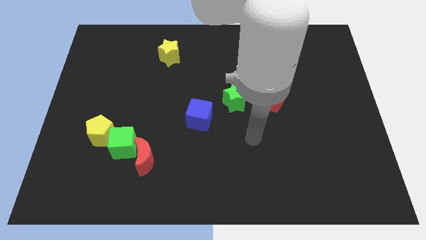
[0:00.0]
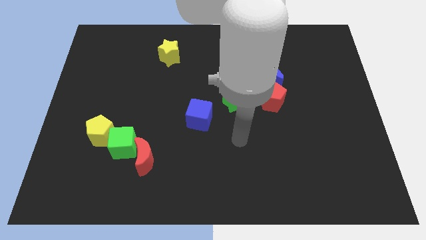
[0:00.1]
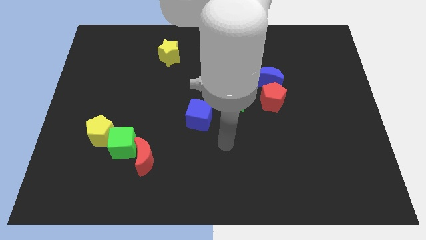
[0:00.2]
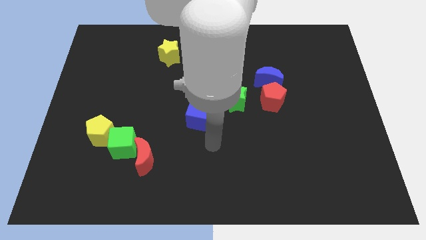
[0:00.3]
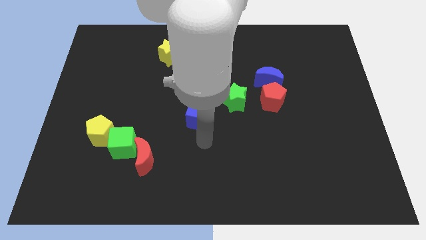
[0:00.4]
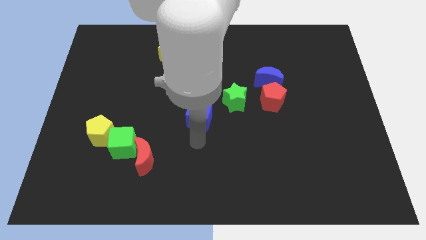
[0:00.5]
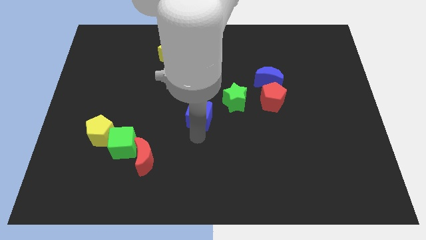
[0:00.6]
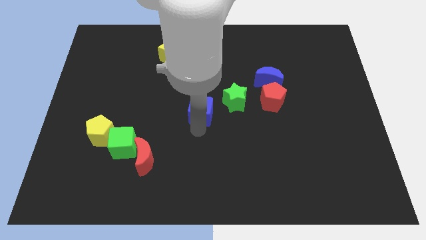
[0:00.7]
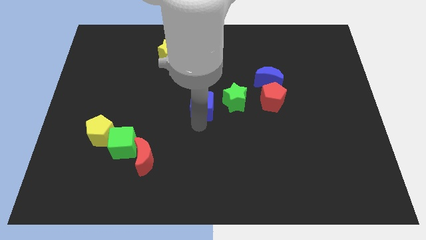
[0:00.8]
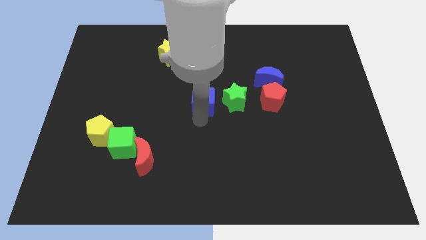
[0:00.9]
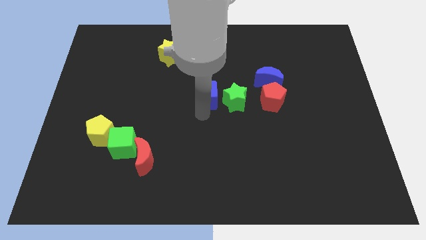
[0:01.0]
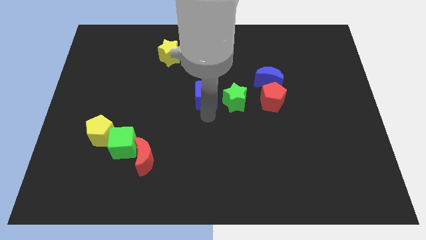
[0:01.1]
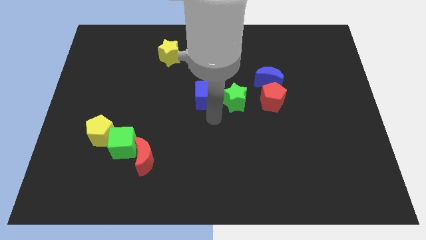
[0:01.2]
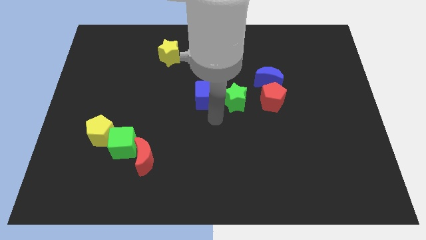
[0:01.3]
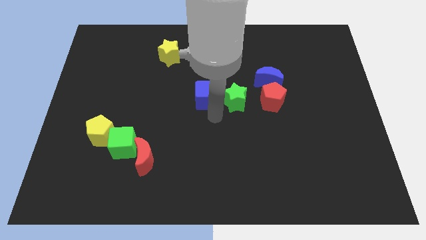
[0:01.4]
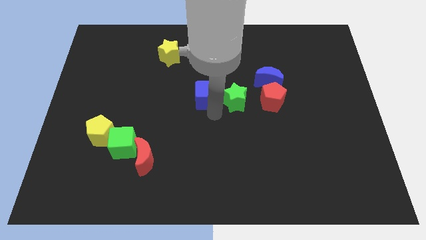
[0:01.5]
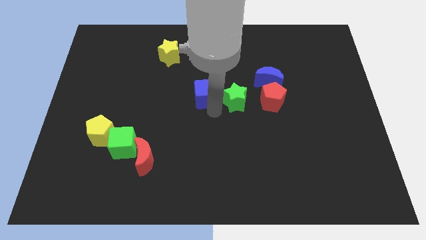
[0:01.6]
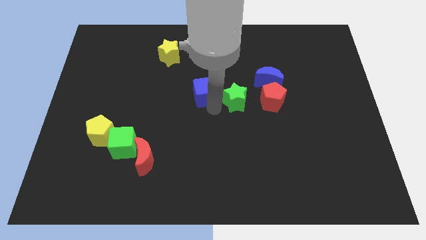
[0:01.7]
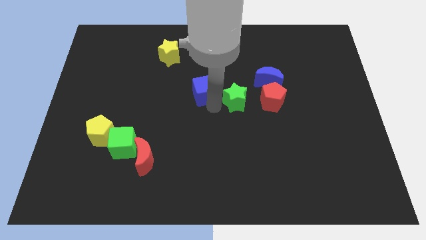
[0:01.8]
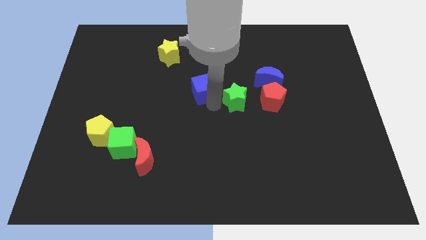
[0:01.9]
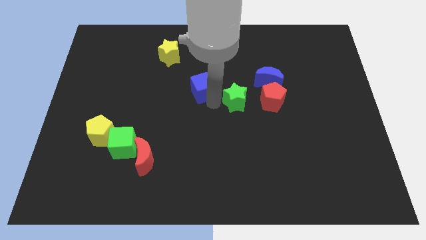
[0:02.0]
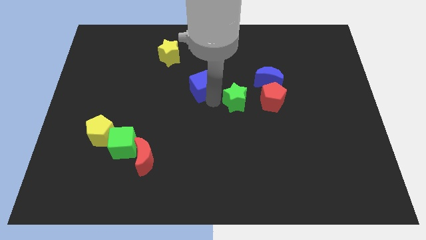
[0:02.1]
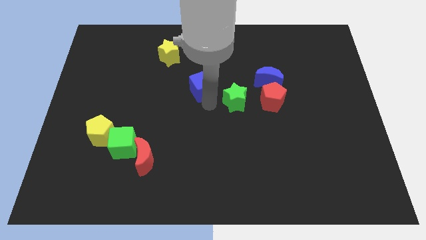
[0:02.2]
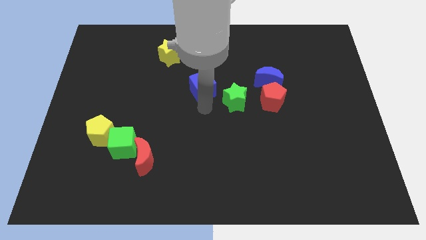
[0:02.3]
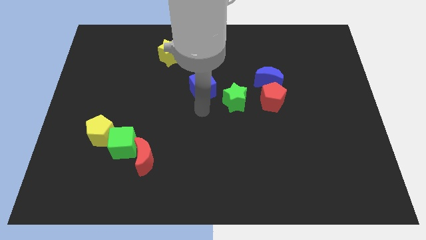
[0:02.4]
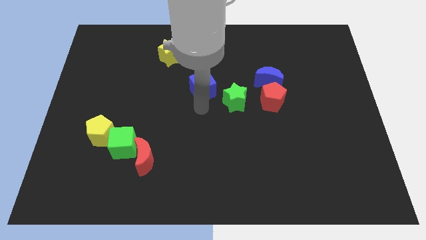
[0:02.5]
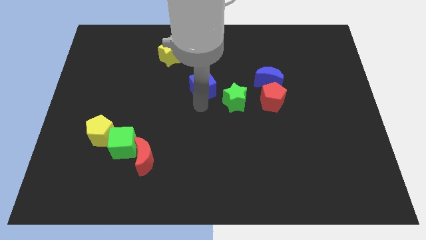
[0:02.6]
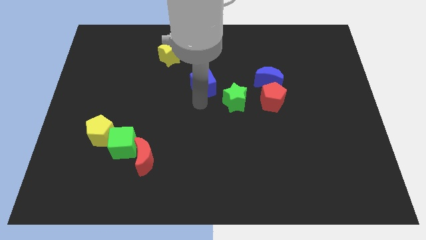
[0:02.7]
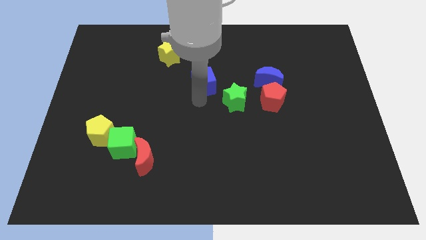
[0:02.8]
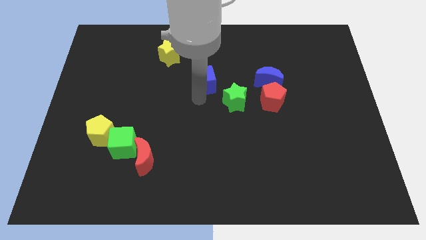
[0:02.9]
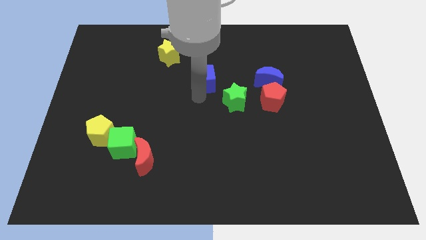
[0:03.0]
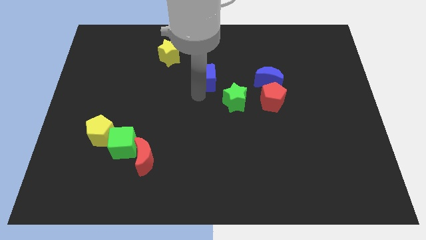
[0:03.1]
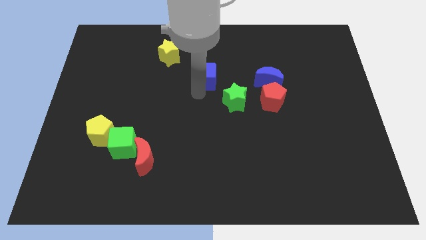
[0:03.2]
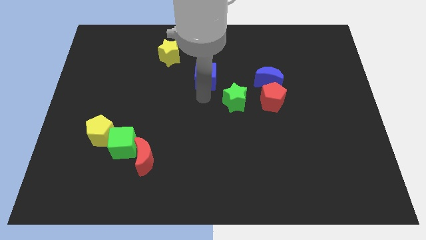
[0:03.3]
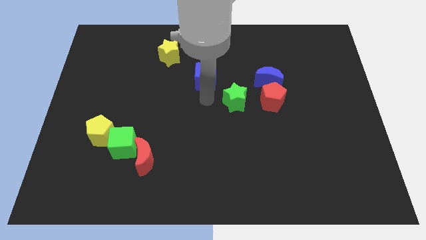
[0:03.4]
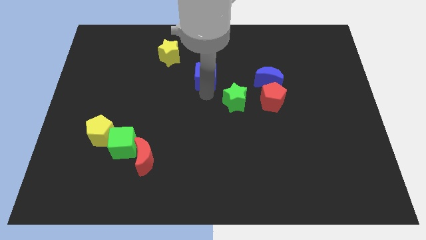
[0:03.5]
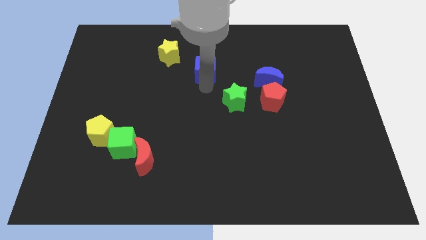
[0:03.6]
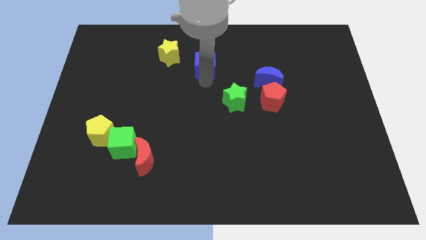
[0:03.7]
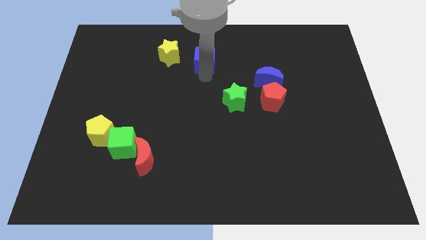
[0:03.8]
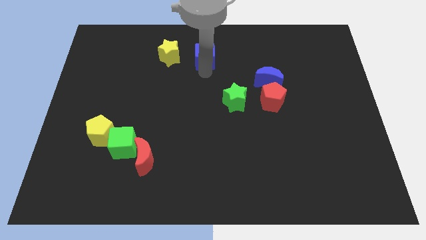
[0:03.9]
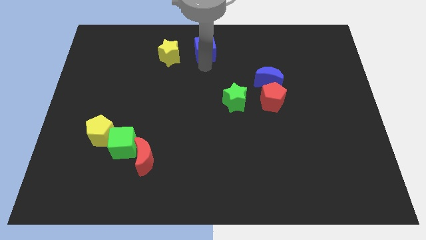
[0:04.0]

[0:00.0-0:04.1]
push the blue cube to the top

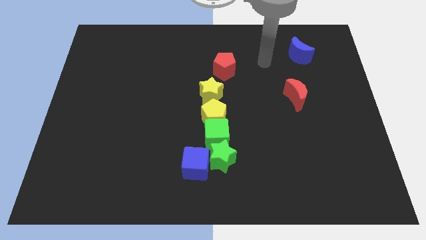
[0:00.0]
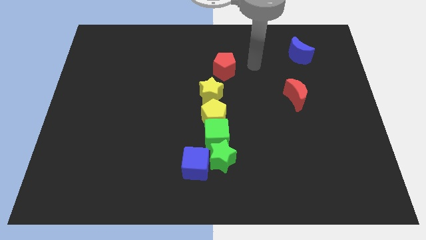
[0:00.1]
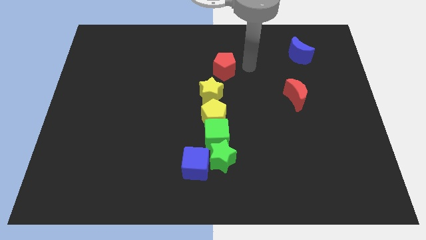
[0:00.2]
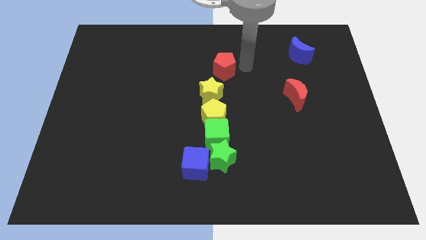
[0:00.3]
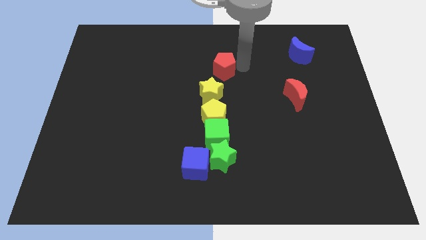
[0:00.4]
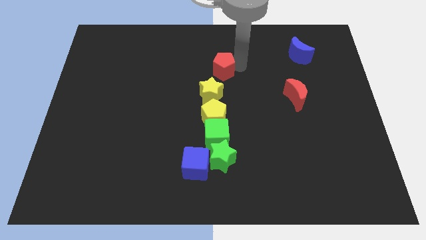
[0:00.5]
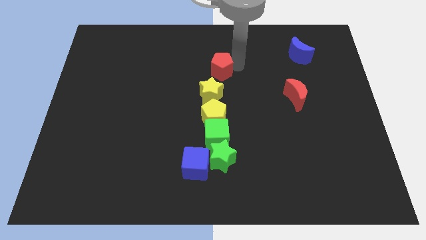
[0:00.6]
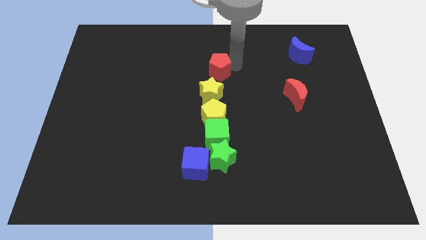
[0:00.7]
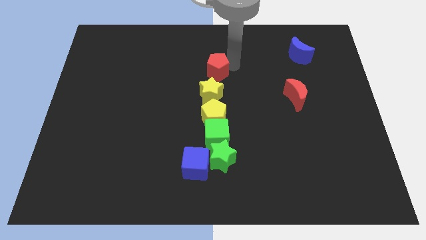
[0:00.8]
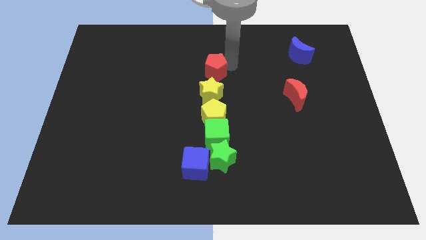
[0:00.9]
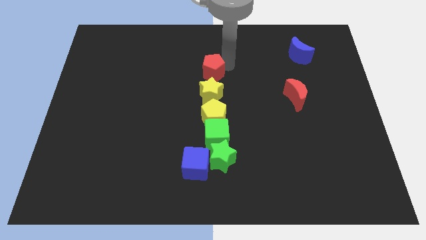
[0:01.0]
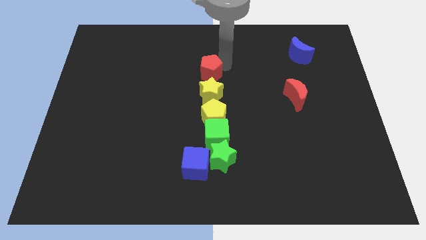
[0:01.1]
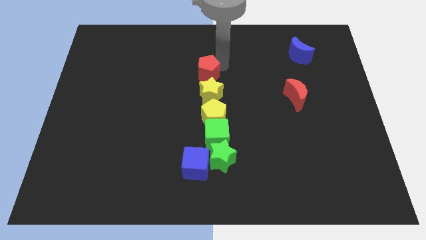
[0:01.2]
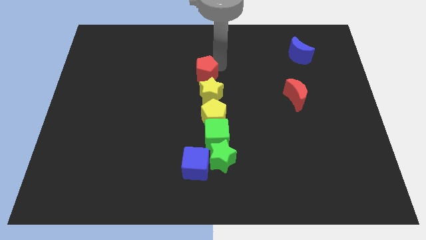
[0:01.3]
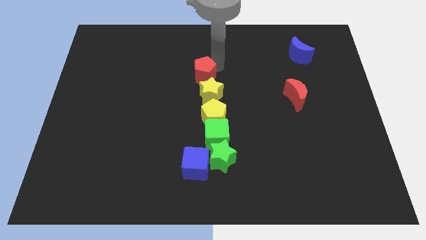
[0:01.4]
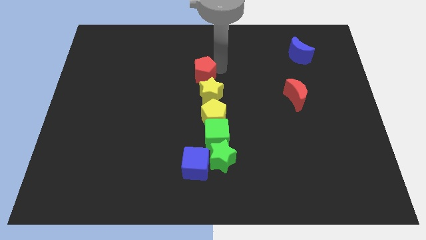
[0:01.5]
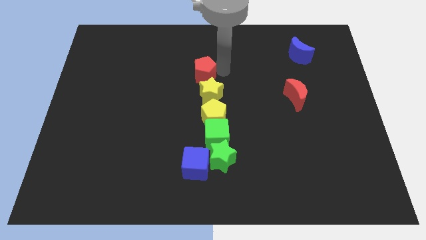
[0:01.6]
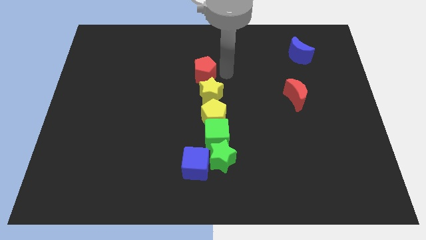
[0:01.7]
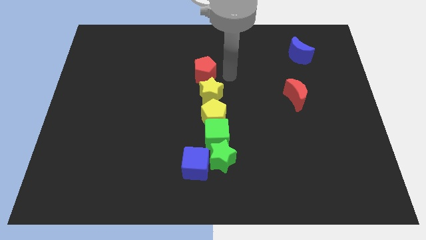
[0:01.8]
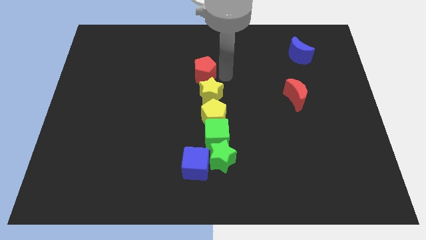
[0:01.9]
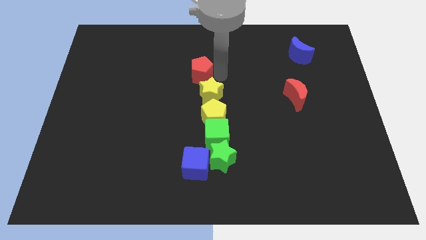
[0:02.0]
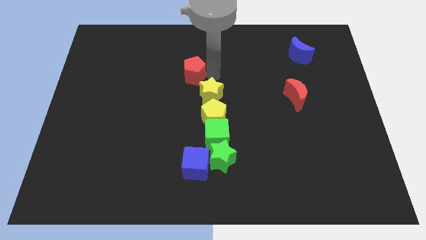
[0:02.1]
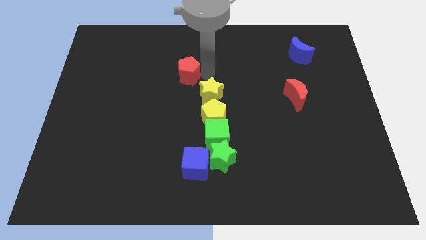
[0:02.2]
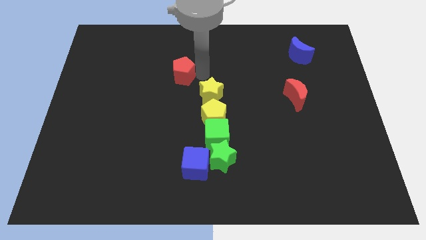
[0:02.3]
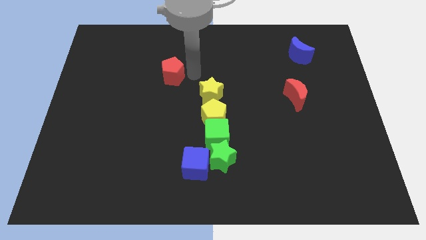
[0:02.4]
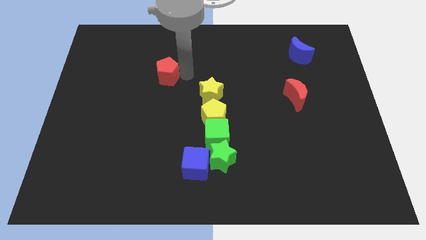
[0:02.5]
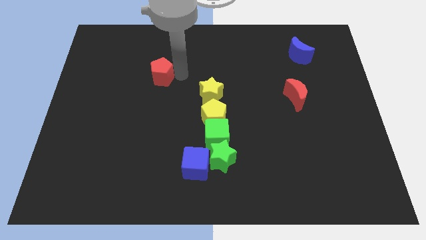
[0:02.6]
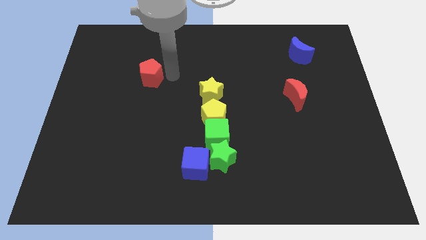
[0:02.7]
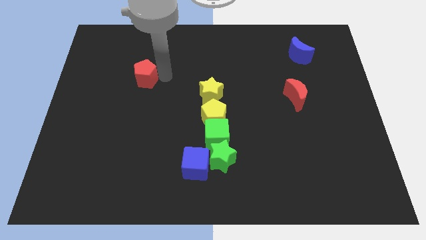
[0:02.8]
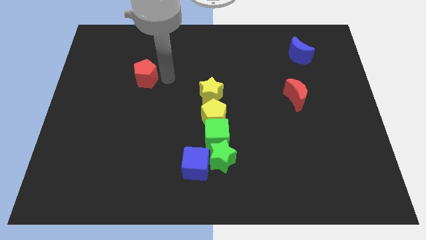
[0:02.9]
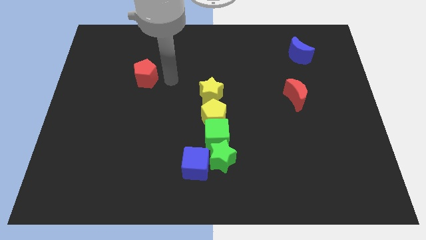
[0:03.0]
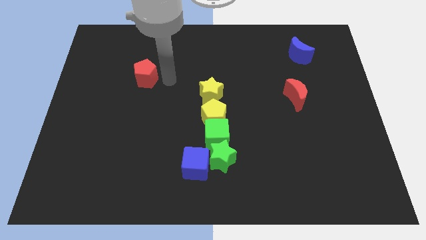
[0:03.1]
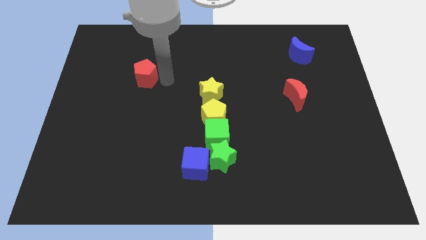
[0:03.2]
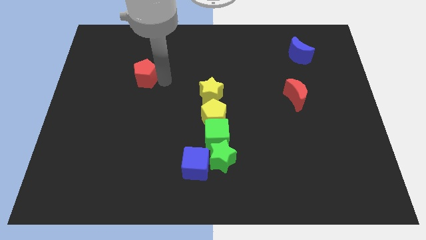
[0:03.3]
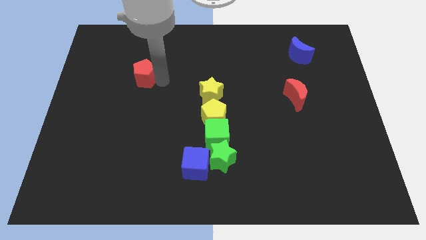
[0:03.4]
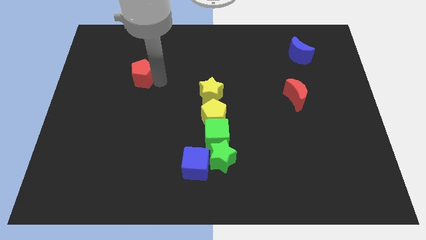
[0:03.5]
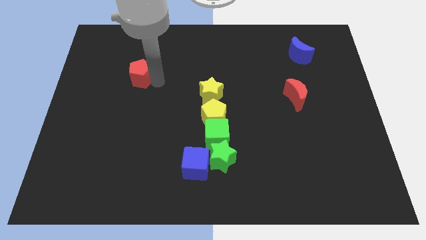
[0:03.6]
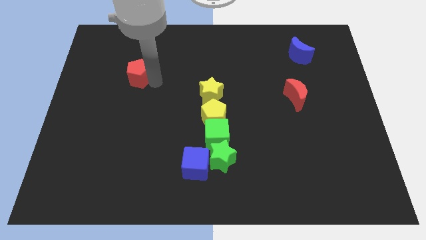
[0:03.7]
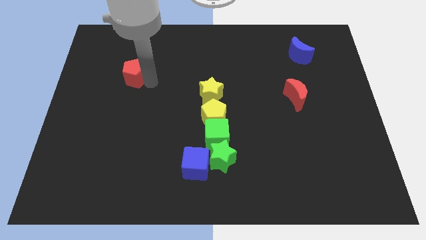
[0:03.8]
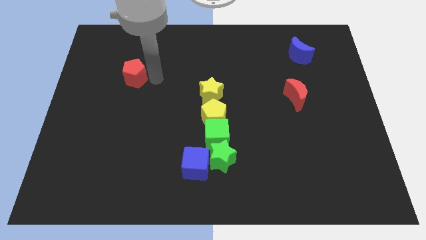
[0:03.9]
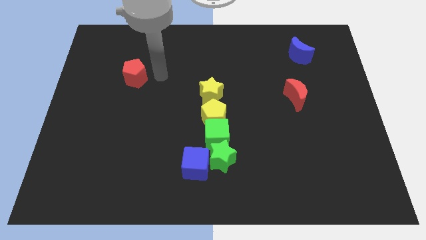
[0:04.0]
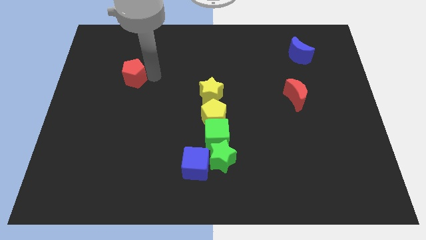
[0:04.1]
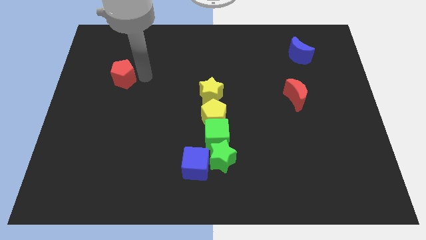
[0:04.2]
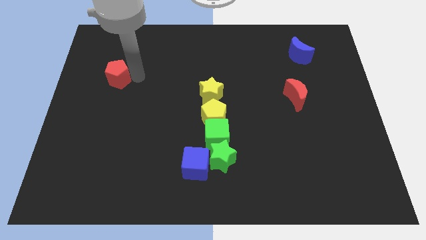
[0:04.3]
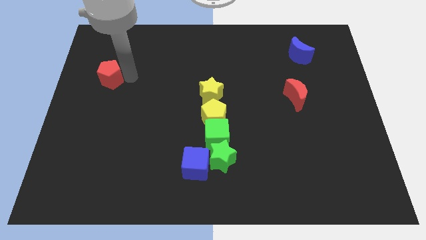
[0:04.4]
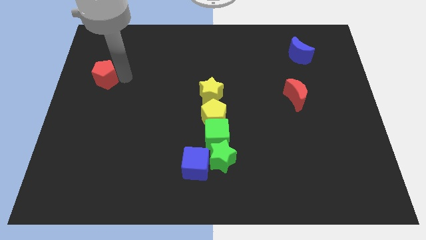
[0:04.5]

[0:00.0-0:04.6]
put the red pentagon to the left side of the board
